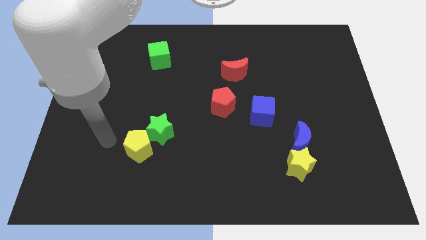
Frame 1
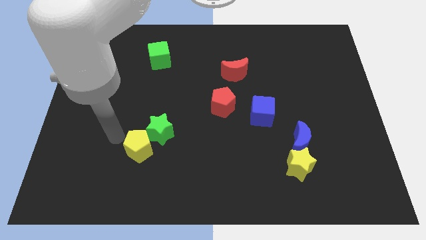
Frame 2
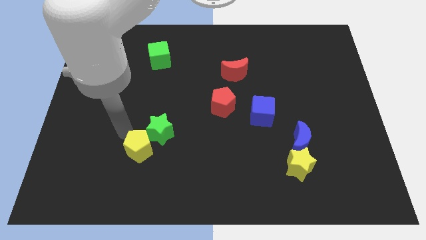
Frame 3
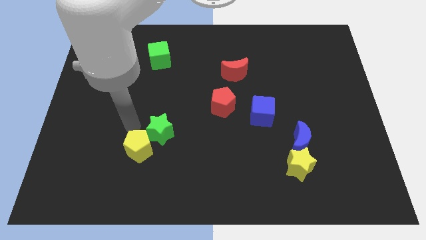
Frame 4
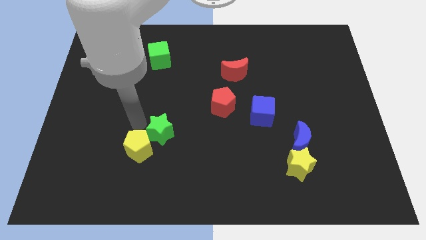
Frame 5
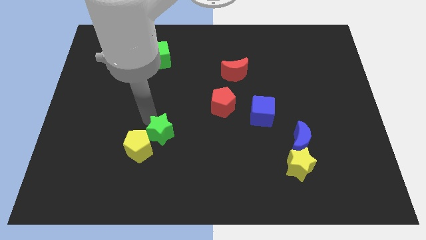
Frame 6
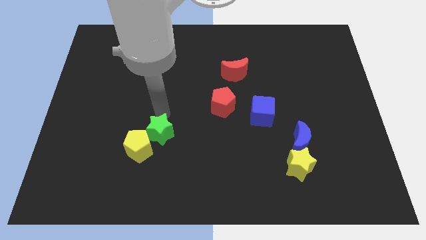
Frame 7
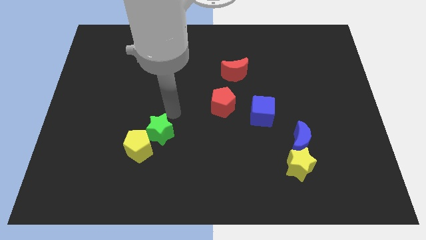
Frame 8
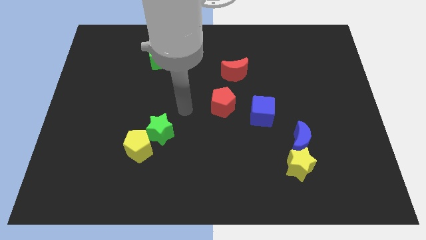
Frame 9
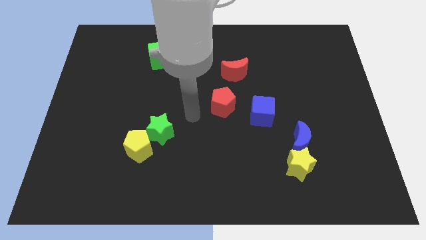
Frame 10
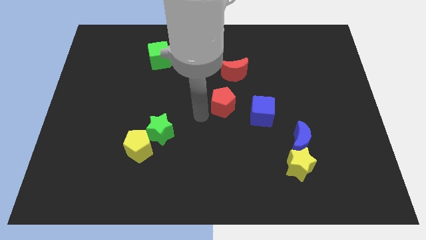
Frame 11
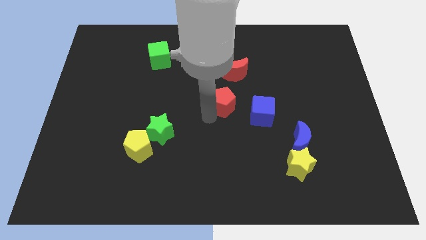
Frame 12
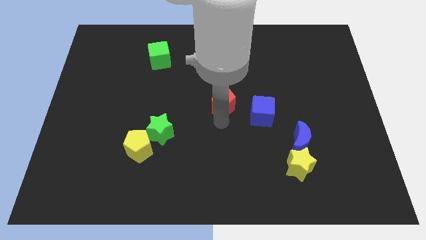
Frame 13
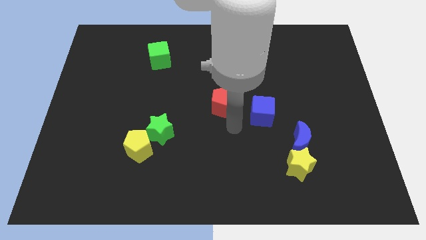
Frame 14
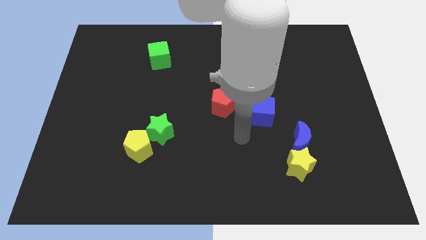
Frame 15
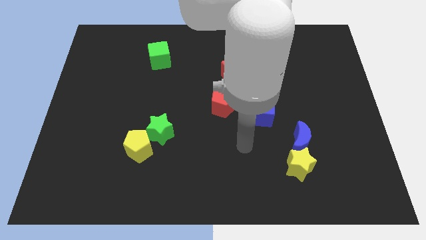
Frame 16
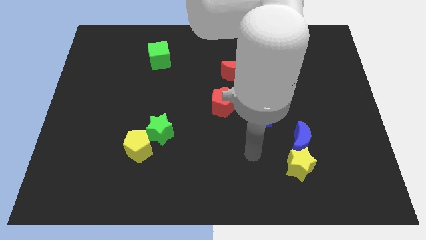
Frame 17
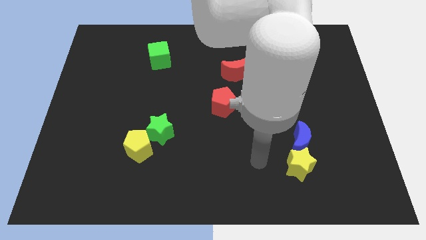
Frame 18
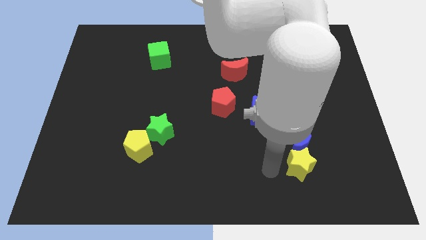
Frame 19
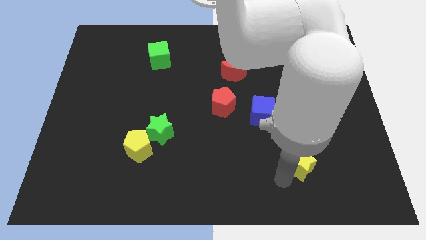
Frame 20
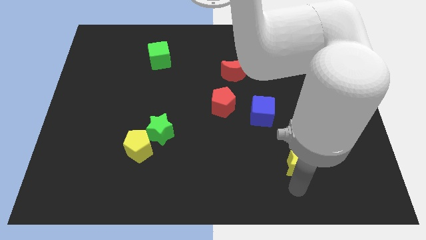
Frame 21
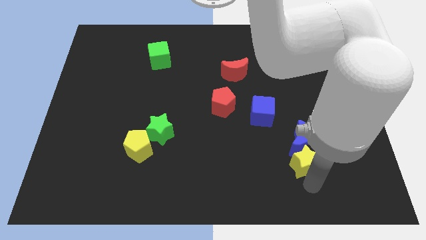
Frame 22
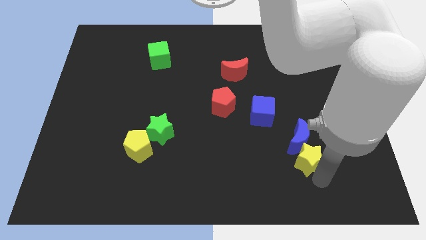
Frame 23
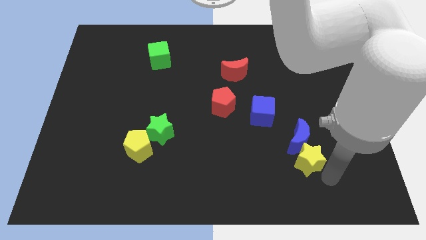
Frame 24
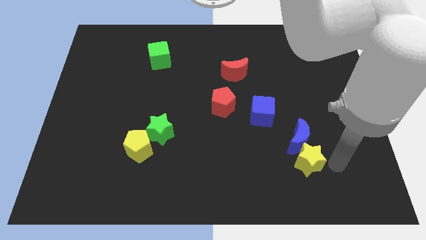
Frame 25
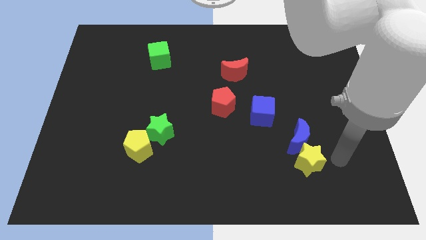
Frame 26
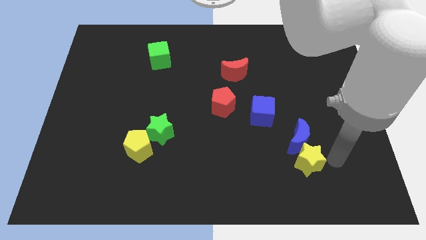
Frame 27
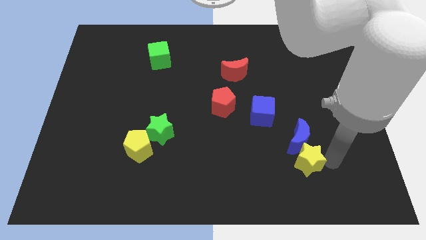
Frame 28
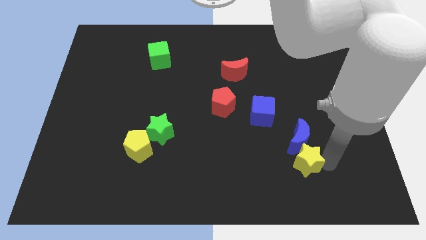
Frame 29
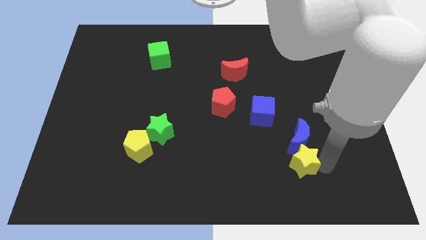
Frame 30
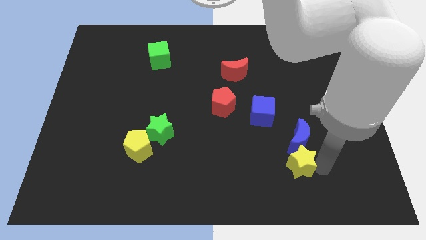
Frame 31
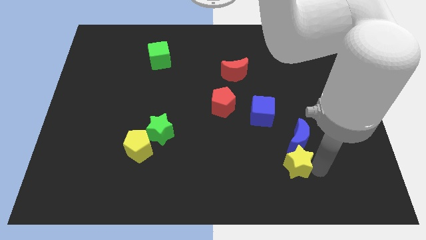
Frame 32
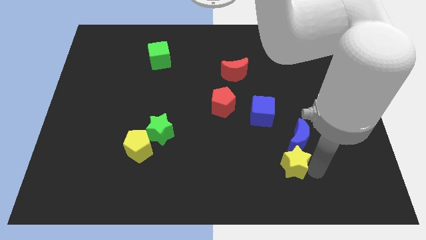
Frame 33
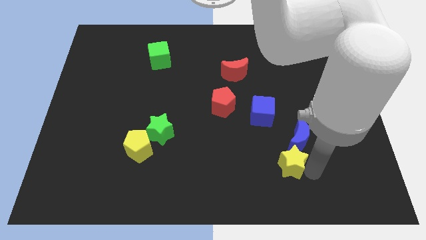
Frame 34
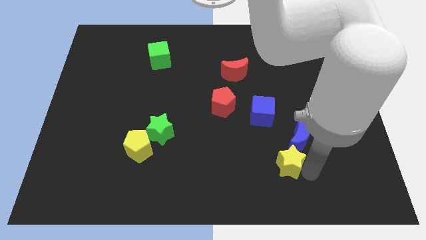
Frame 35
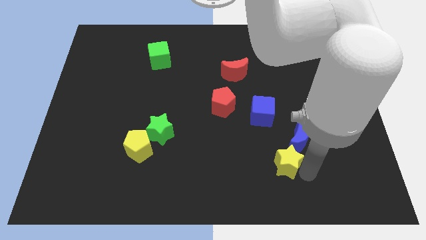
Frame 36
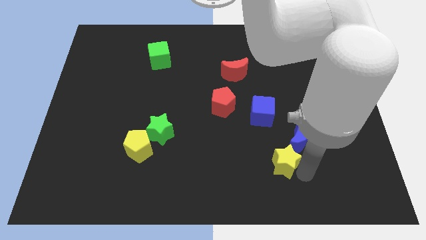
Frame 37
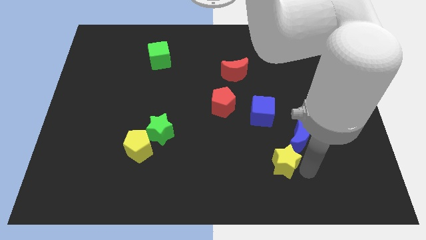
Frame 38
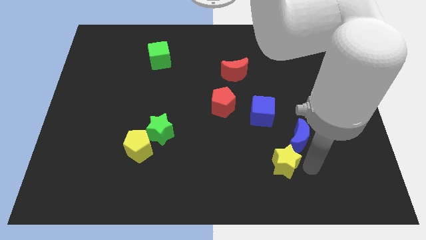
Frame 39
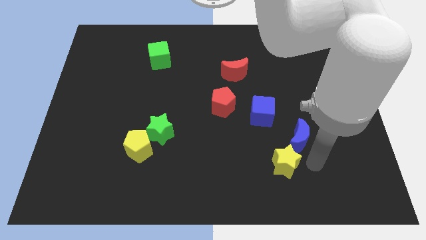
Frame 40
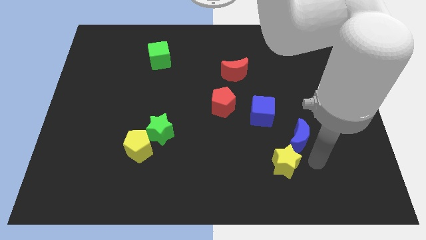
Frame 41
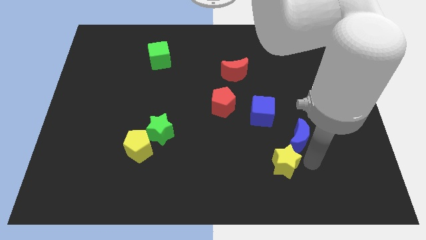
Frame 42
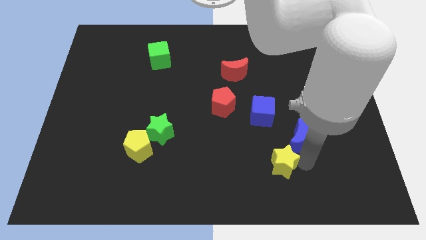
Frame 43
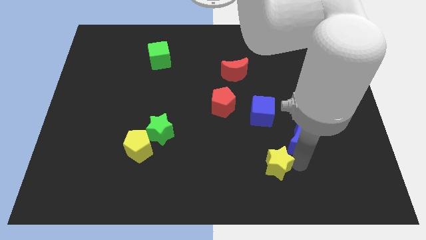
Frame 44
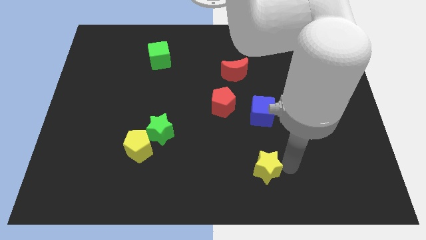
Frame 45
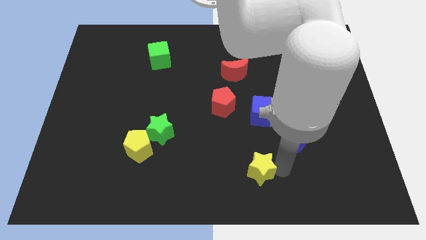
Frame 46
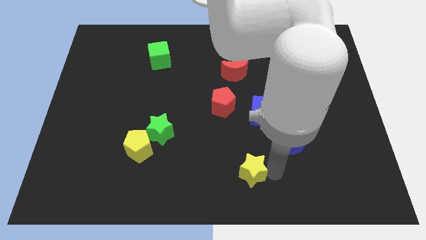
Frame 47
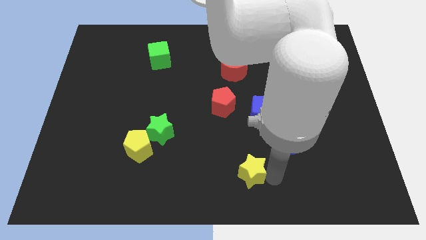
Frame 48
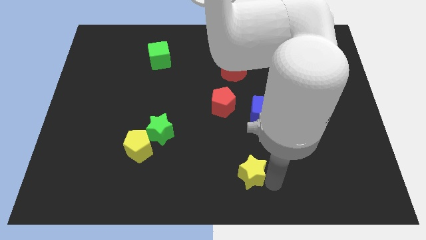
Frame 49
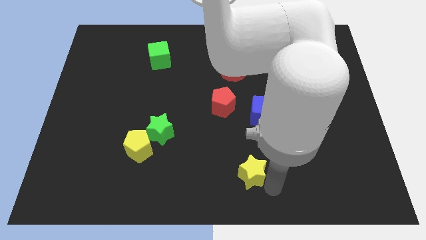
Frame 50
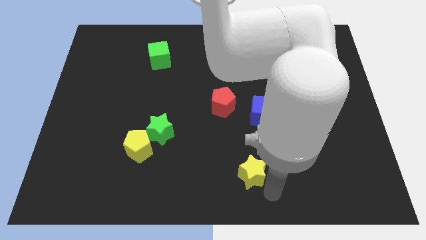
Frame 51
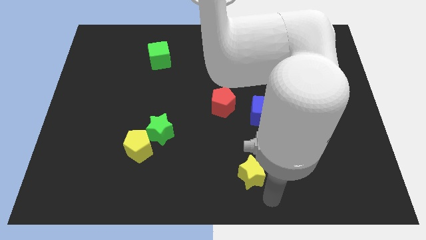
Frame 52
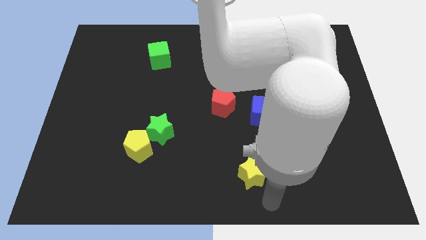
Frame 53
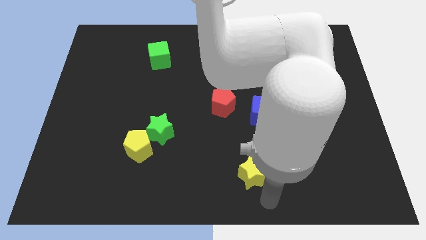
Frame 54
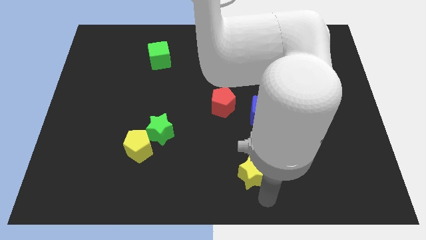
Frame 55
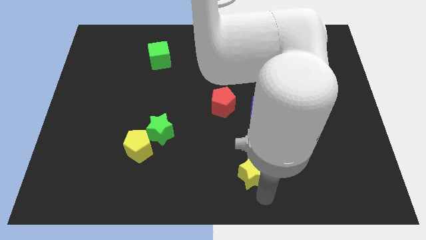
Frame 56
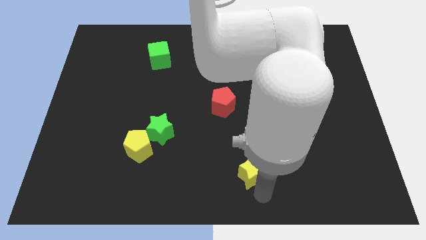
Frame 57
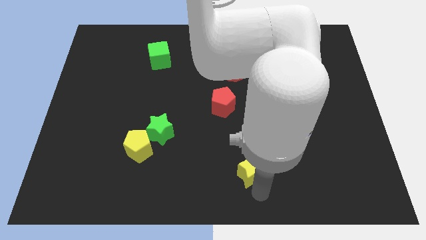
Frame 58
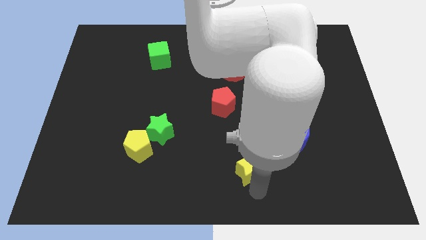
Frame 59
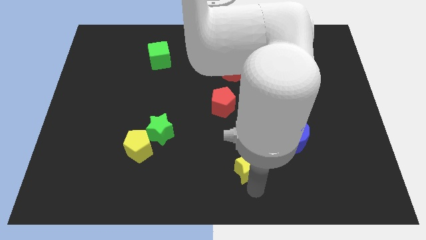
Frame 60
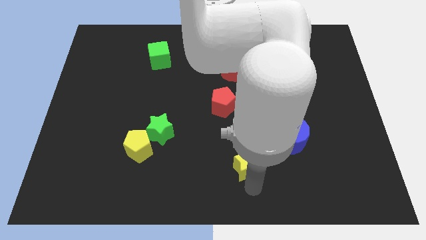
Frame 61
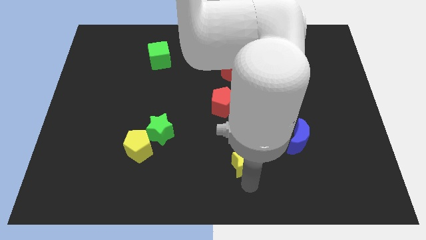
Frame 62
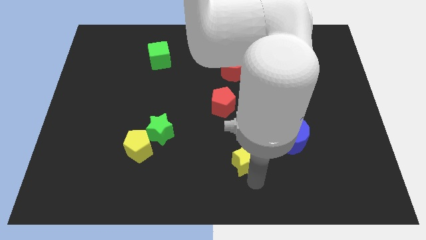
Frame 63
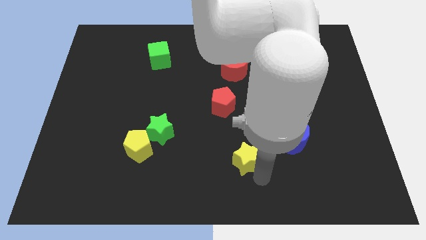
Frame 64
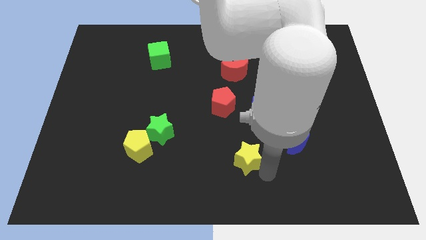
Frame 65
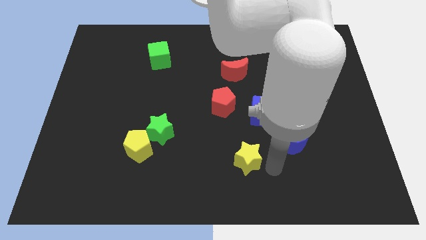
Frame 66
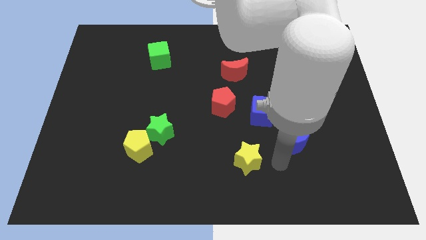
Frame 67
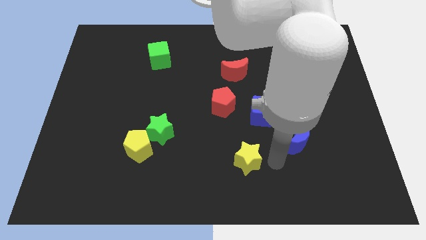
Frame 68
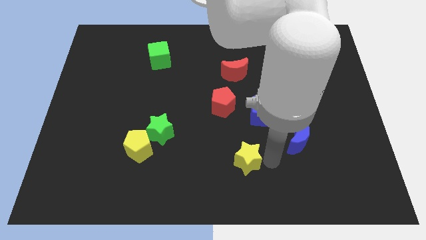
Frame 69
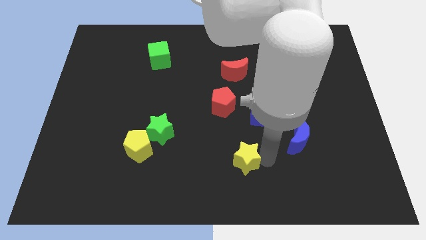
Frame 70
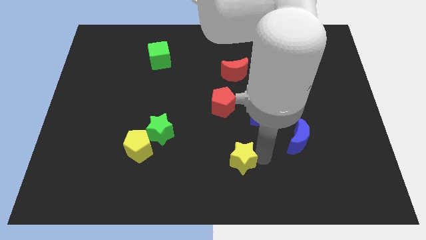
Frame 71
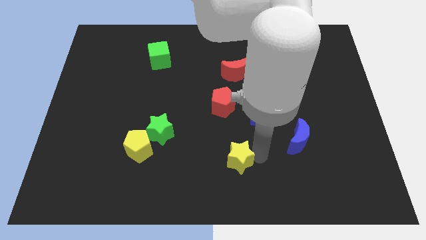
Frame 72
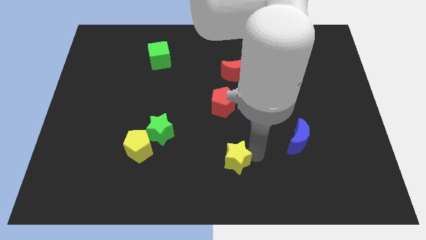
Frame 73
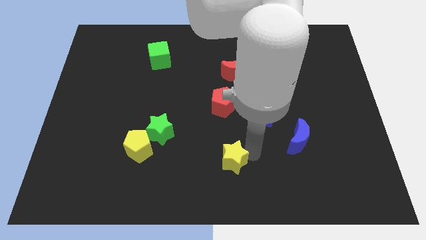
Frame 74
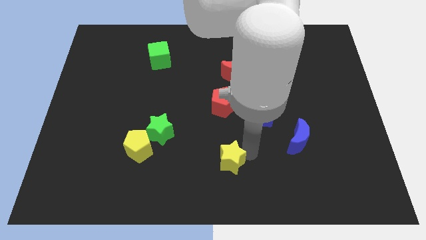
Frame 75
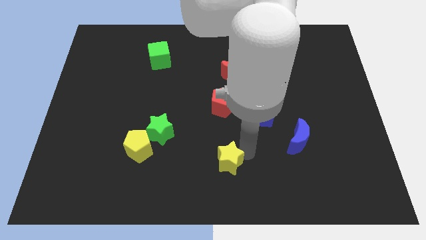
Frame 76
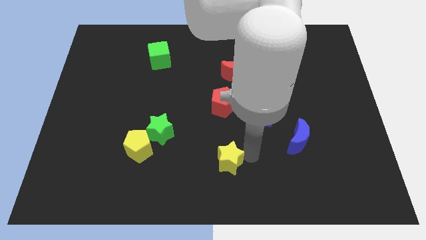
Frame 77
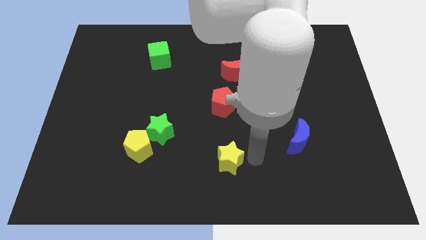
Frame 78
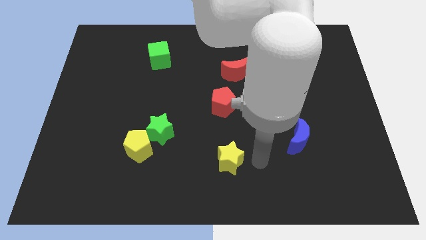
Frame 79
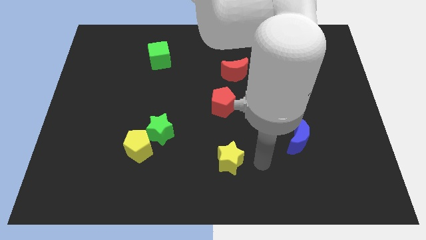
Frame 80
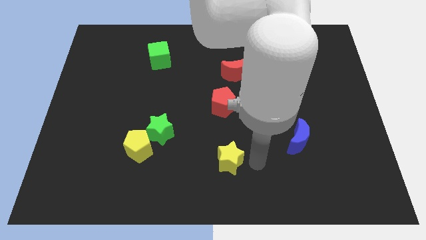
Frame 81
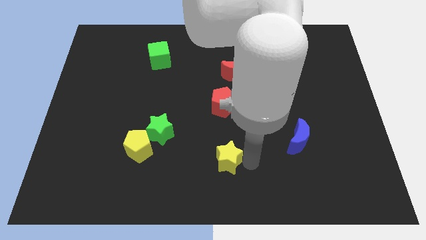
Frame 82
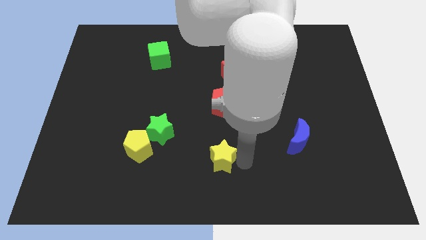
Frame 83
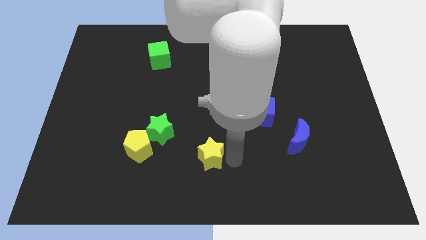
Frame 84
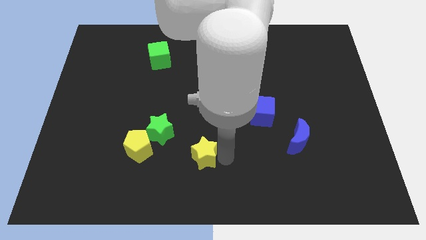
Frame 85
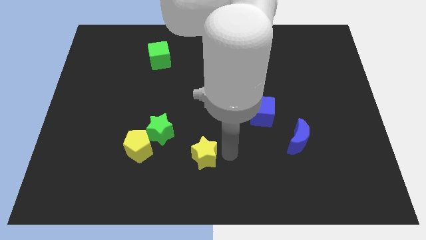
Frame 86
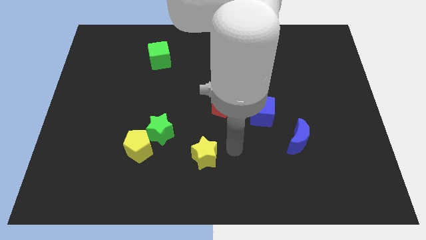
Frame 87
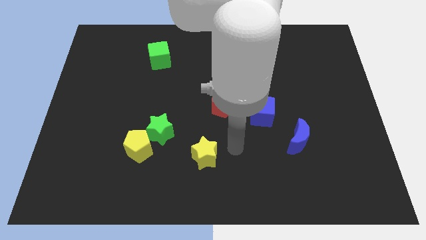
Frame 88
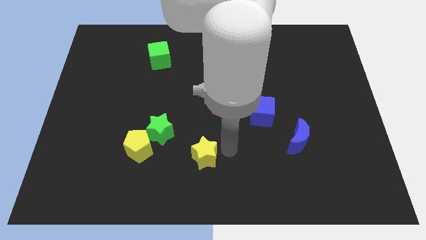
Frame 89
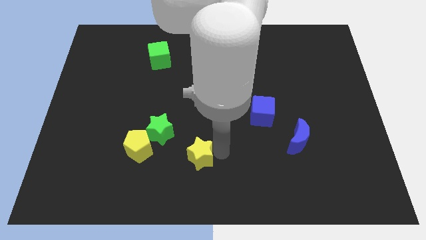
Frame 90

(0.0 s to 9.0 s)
slide the yellow star to the left
